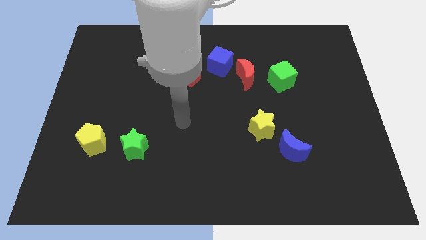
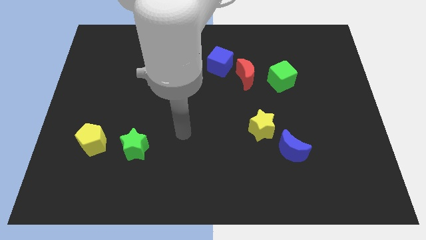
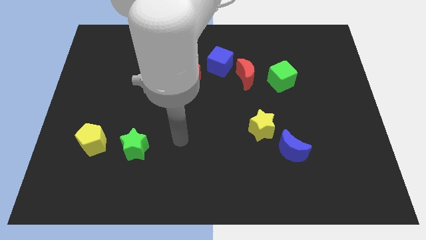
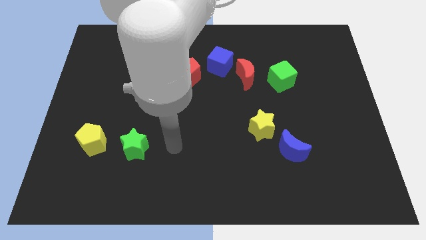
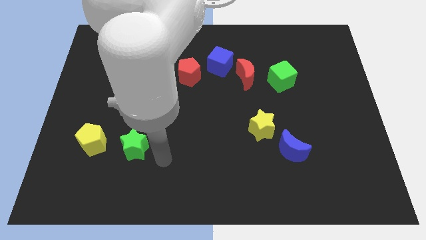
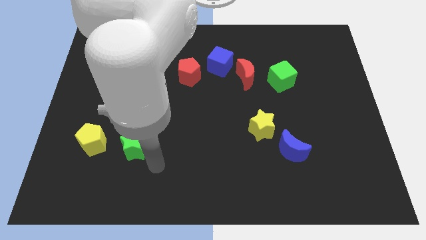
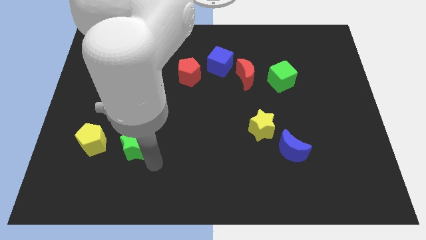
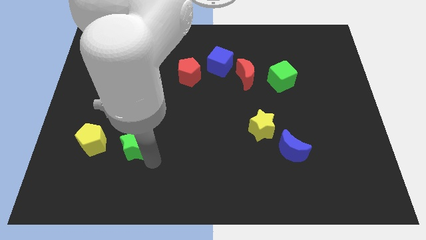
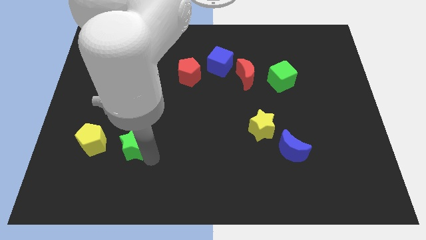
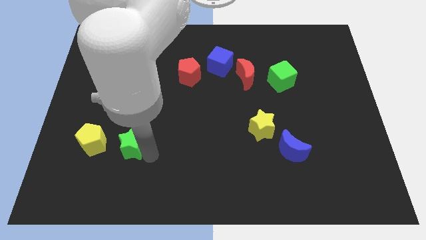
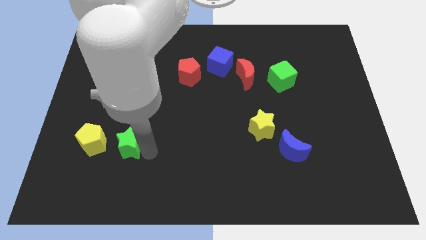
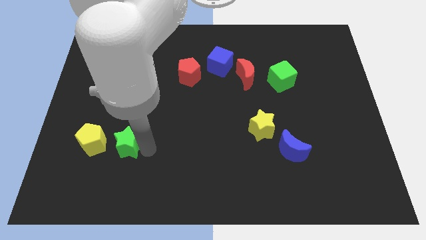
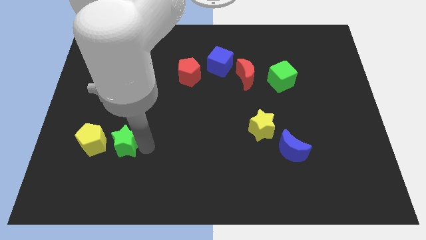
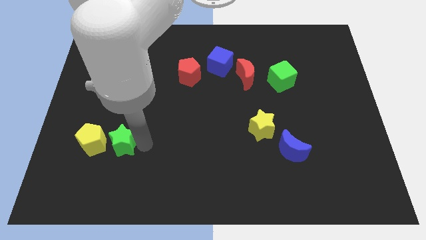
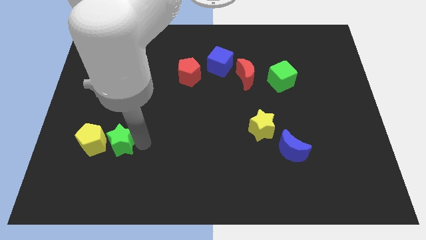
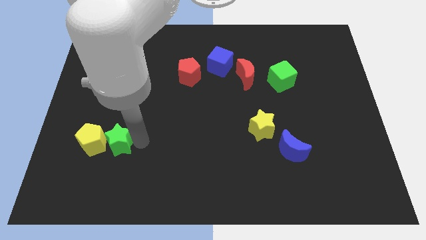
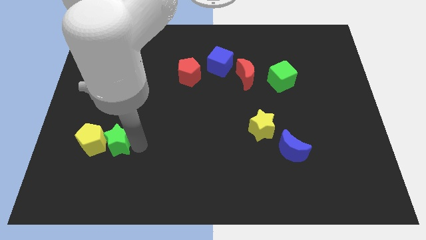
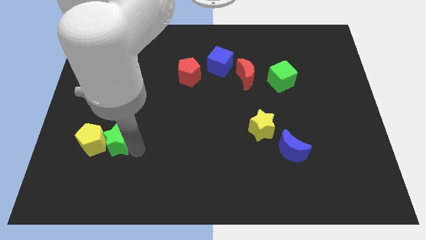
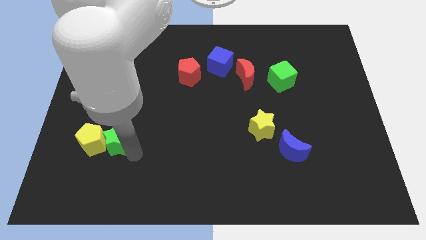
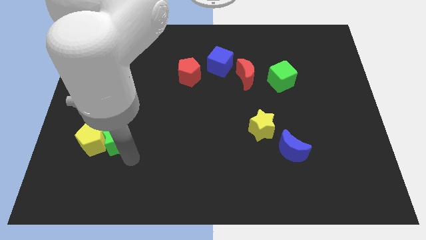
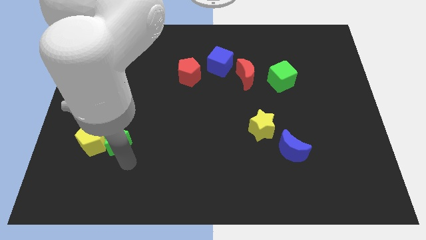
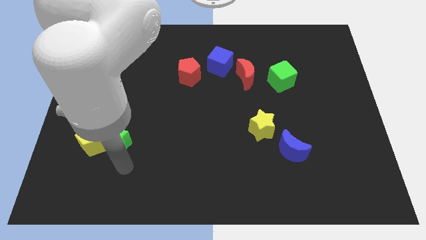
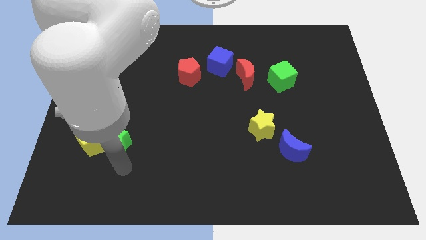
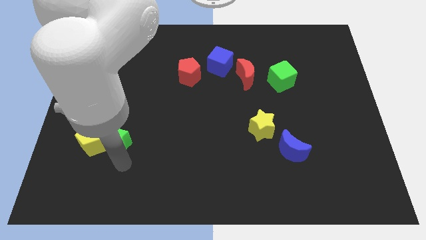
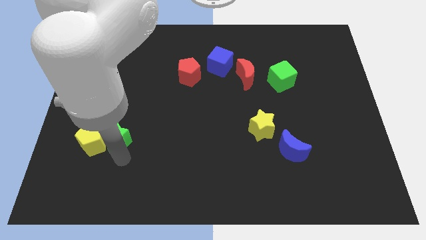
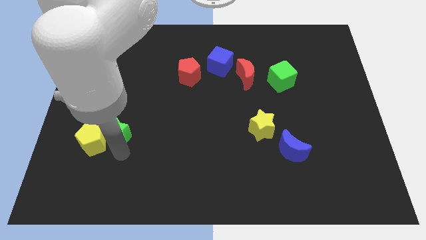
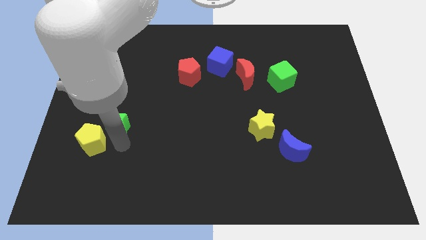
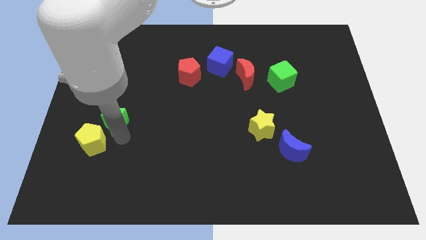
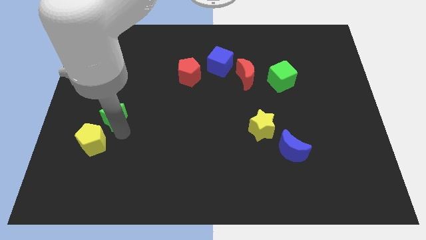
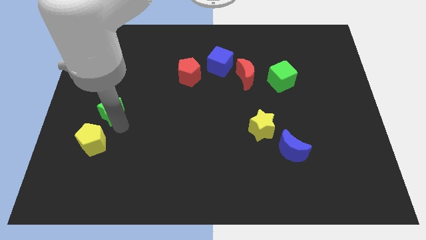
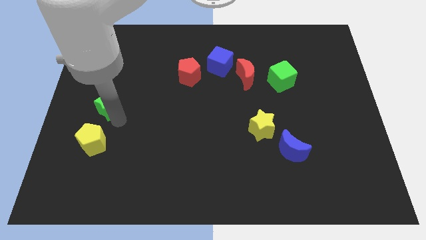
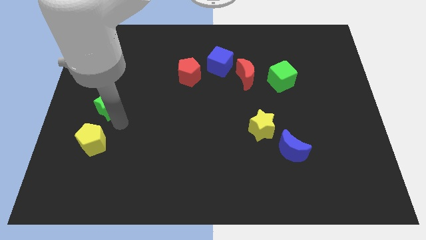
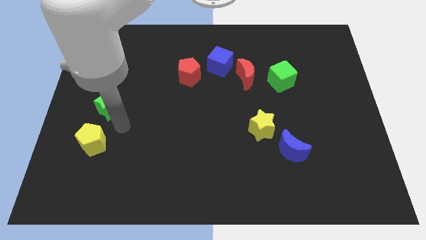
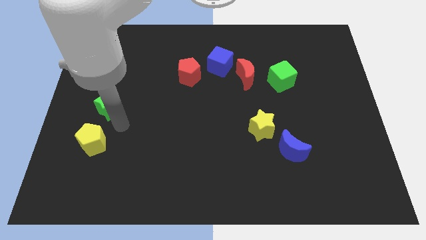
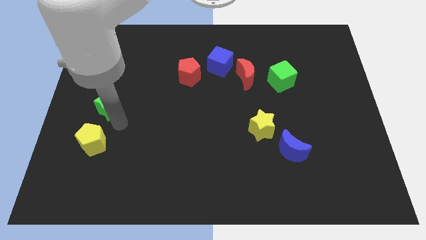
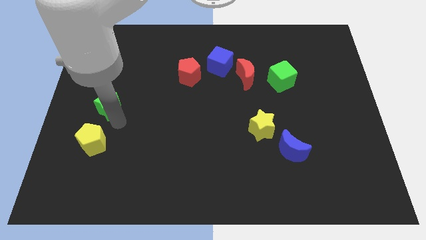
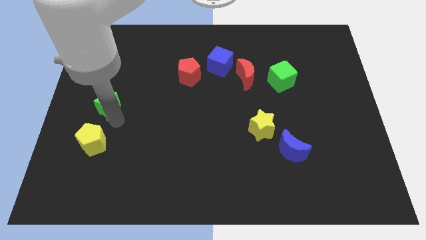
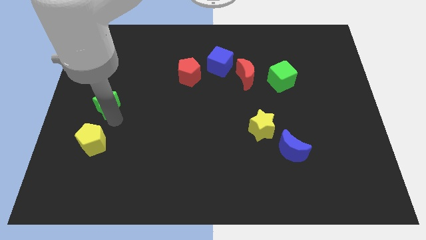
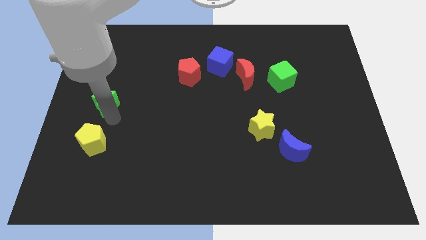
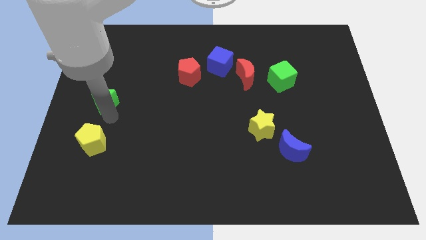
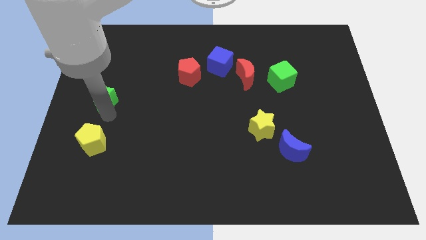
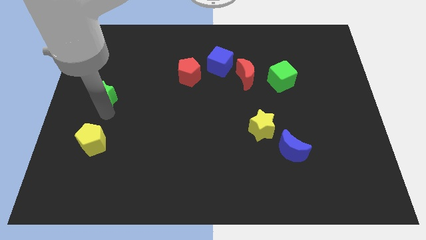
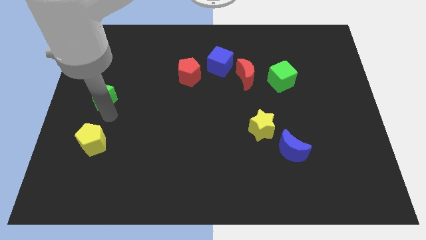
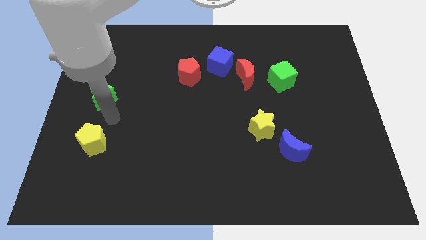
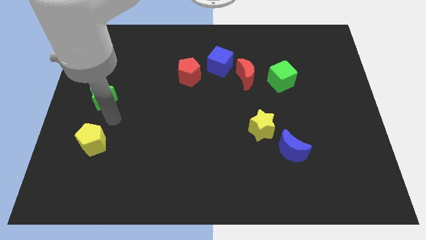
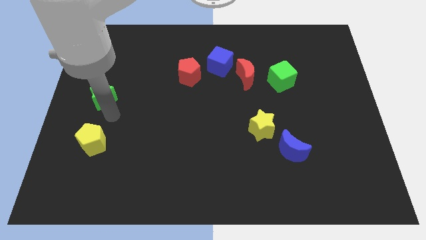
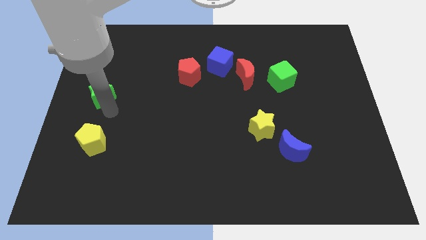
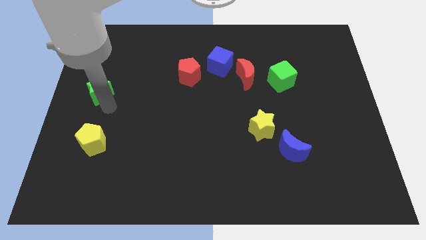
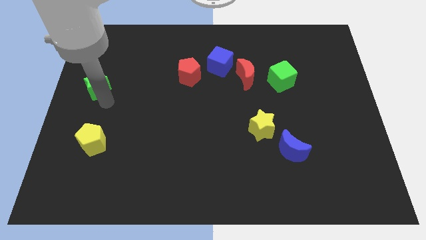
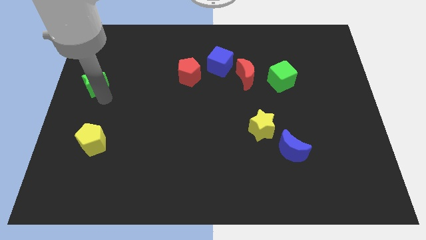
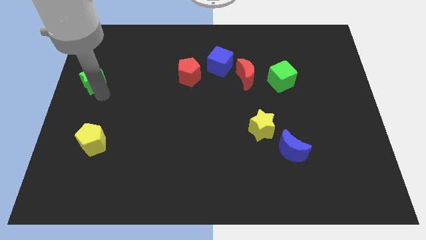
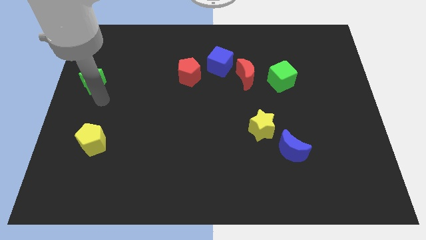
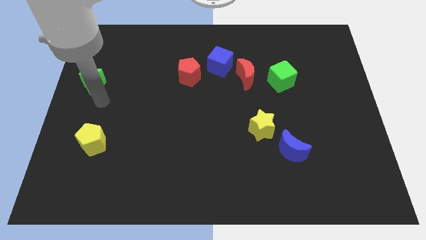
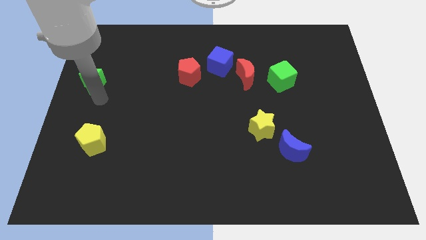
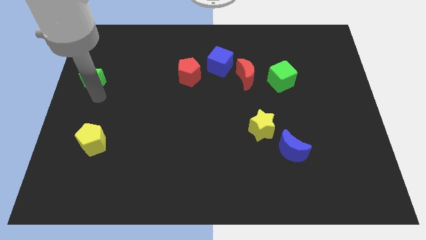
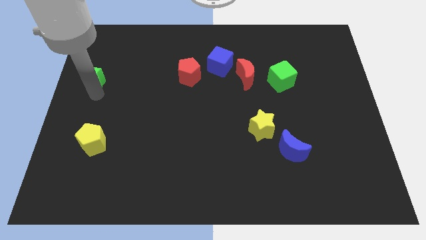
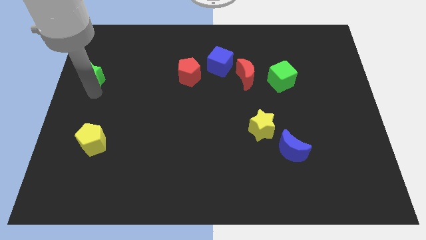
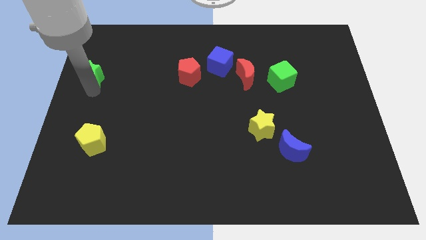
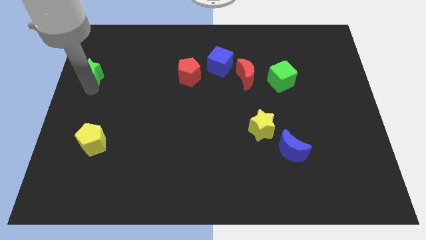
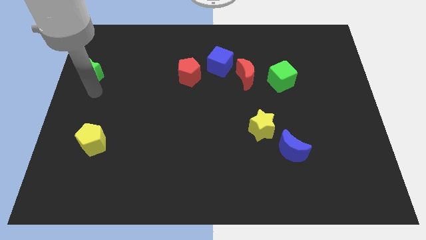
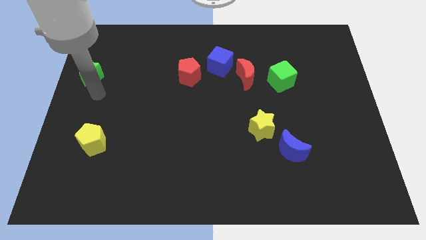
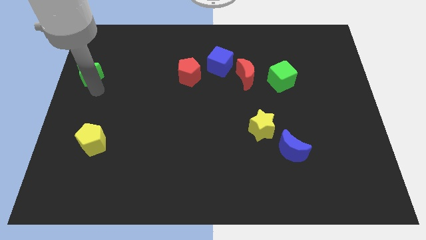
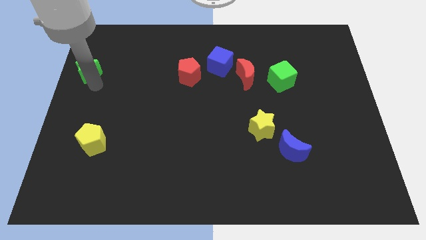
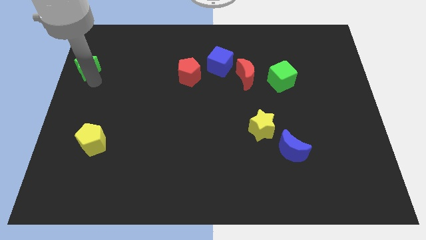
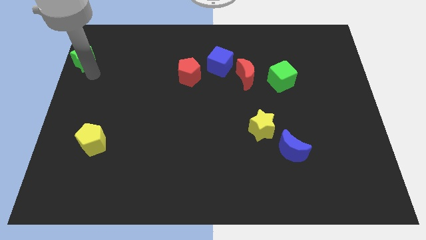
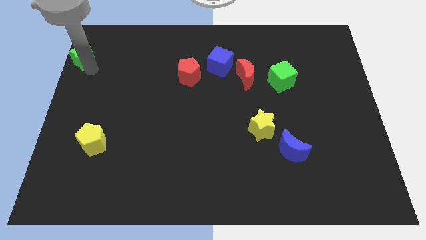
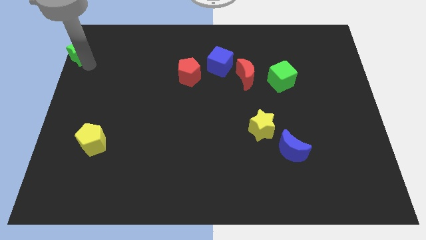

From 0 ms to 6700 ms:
push the green star to the top left of the board
